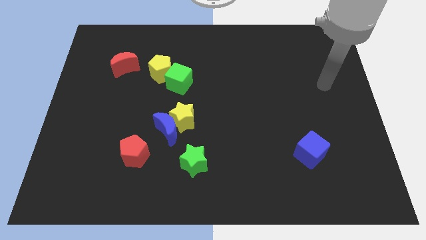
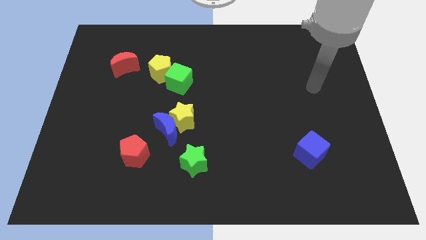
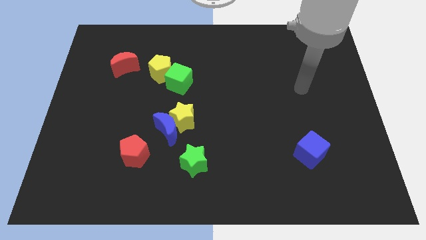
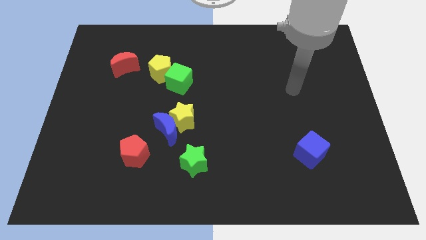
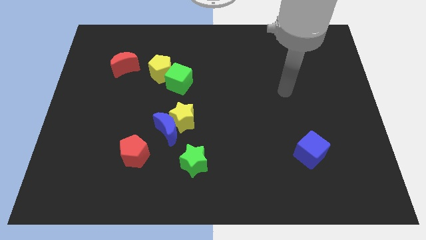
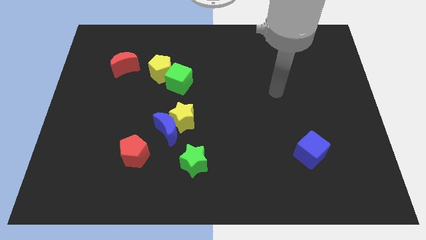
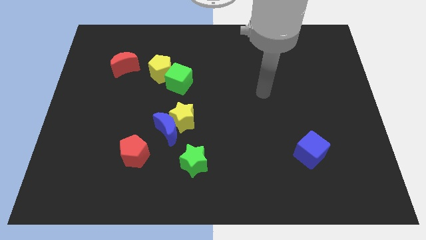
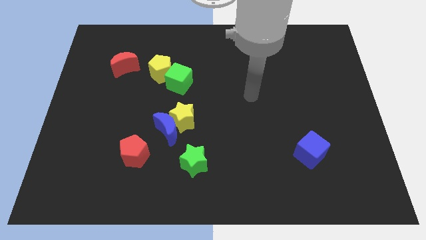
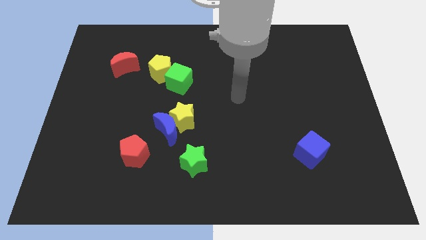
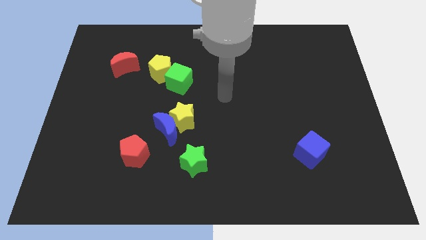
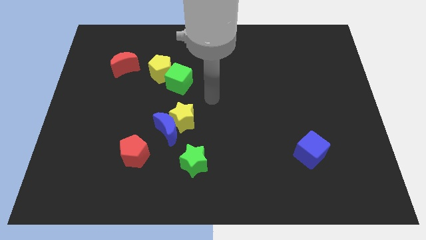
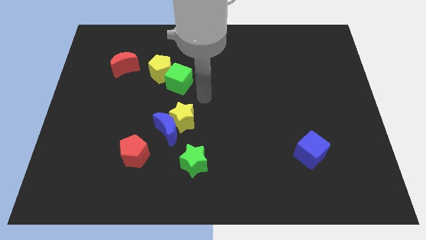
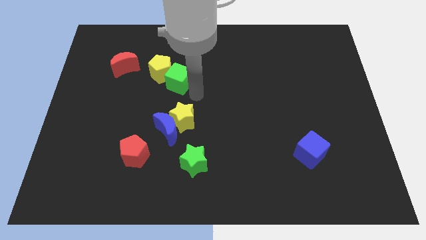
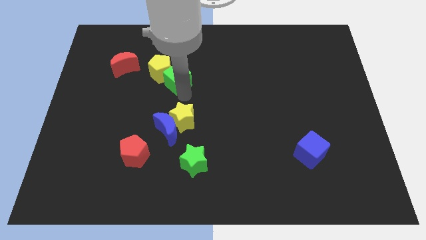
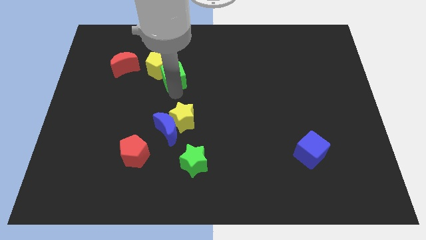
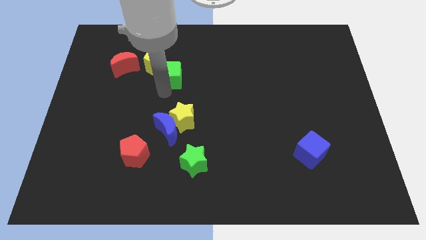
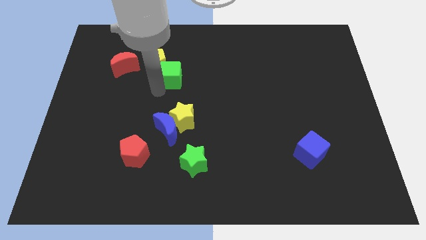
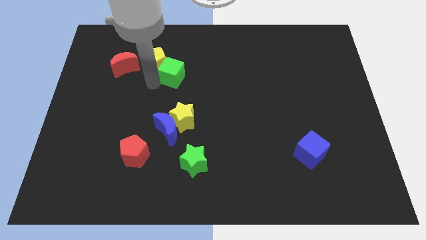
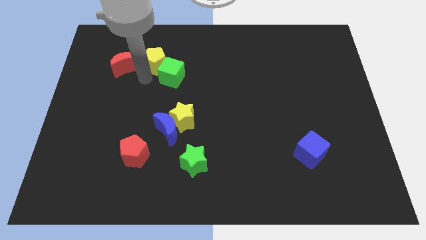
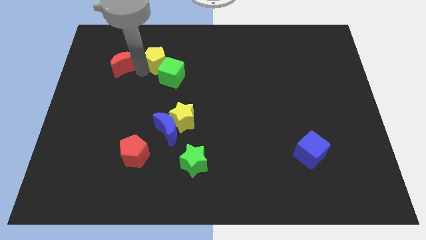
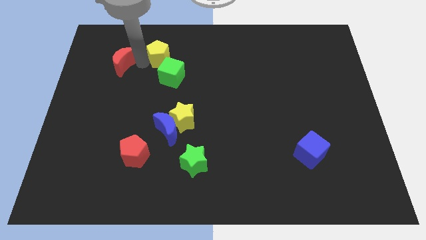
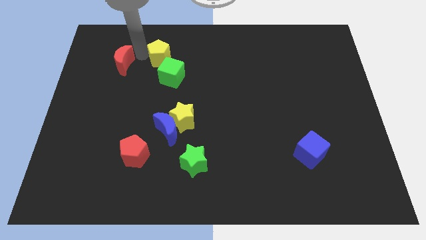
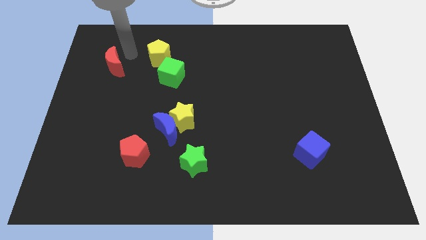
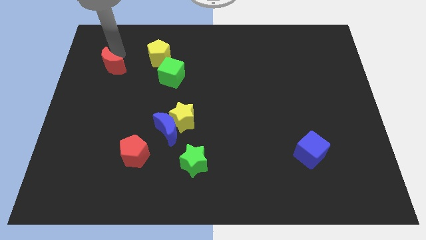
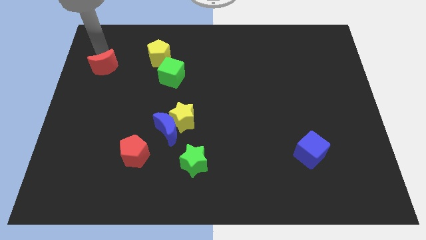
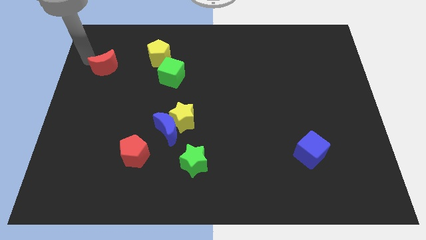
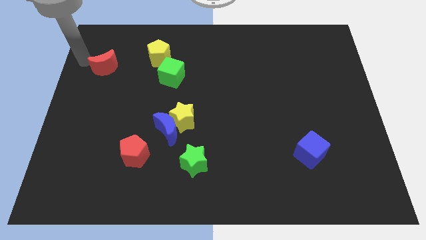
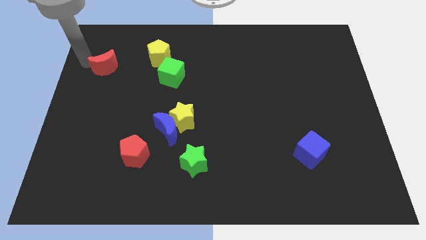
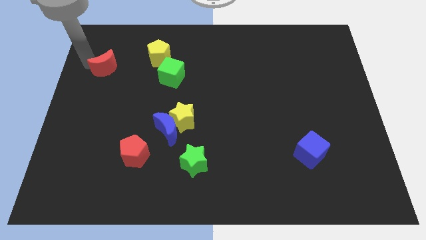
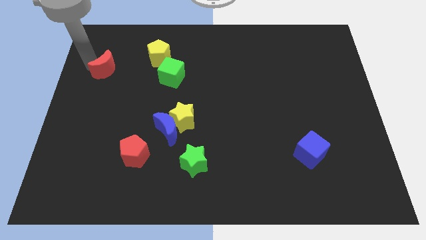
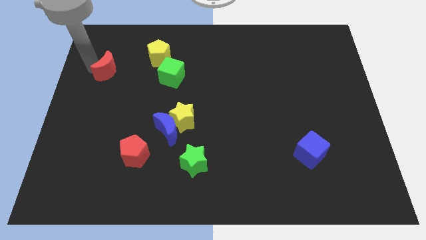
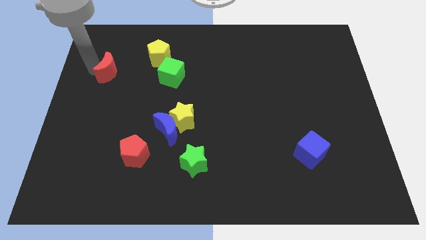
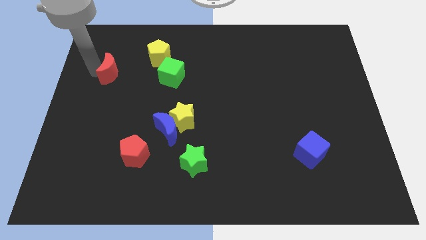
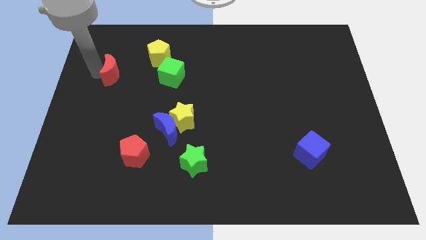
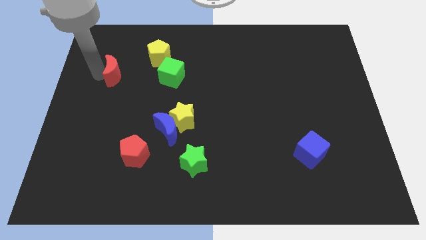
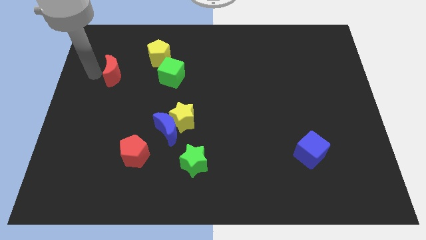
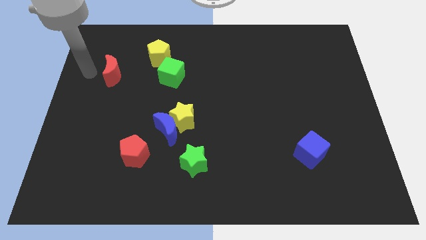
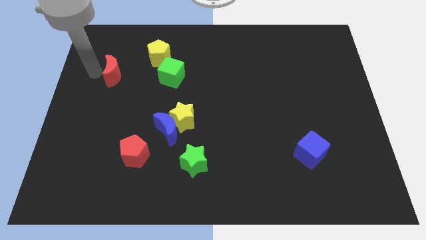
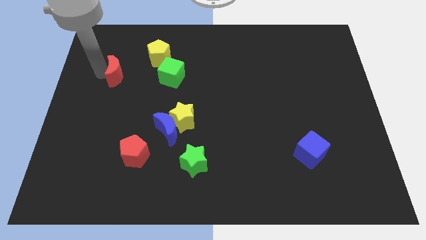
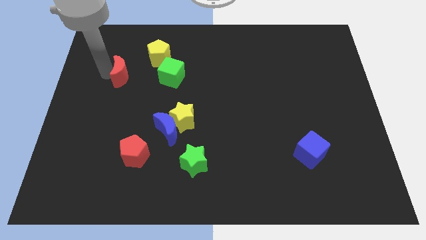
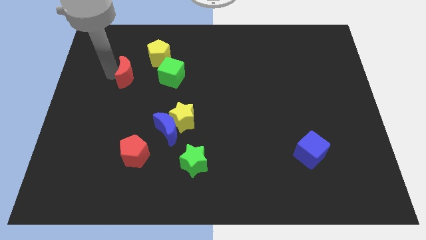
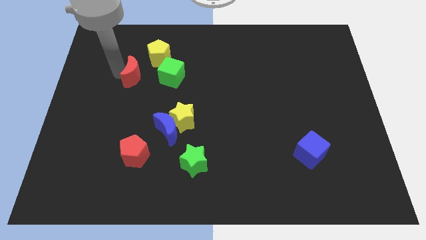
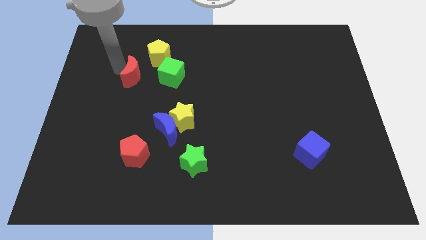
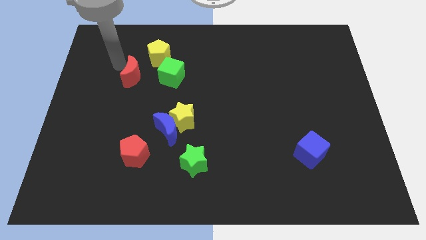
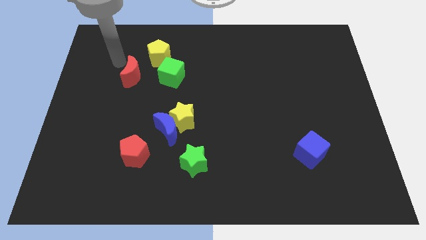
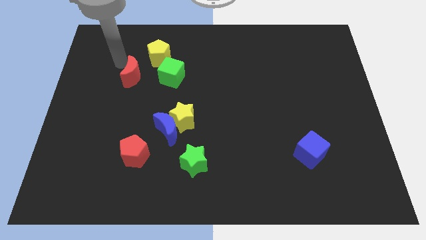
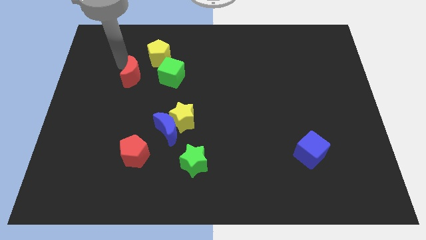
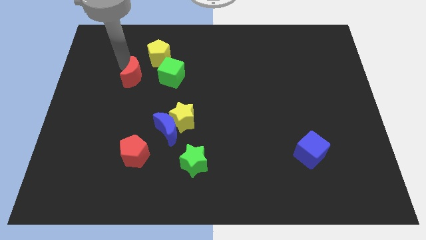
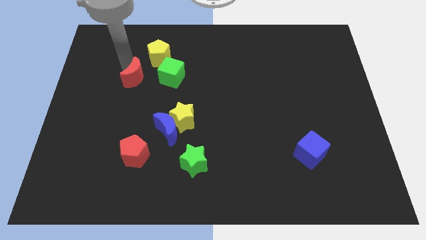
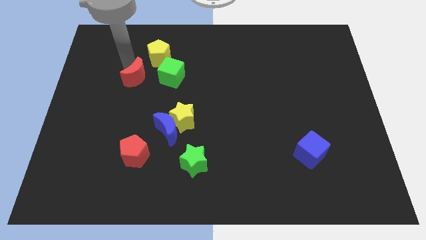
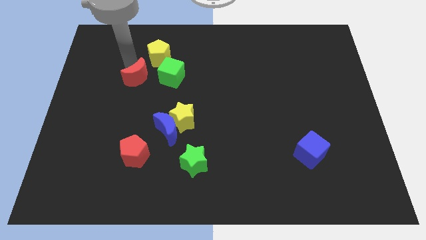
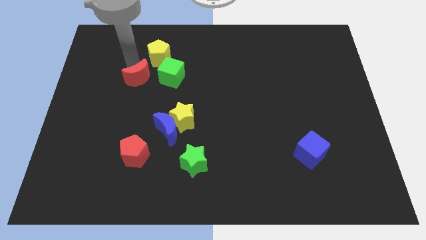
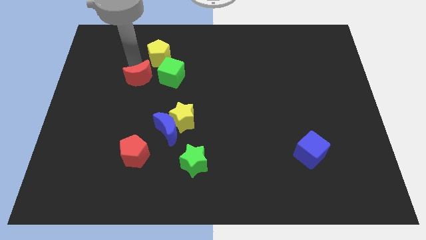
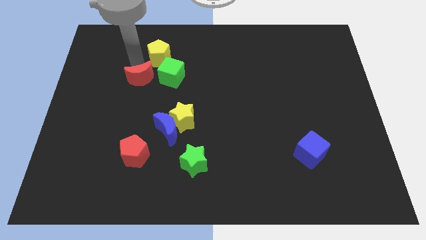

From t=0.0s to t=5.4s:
push the red moon to the bottom left side of the green cube

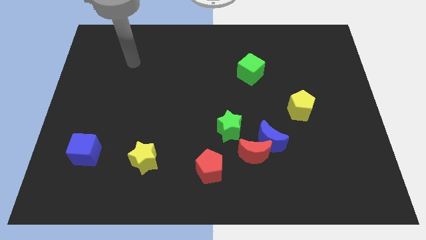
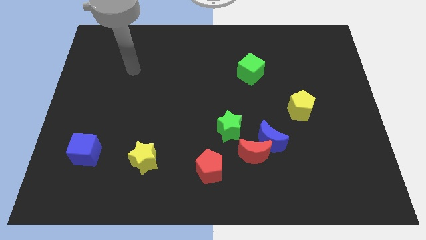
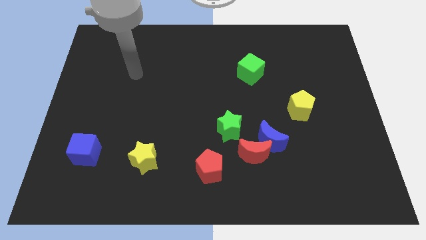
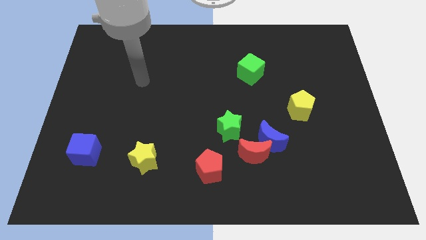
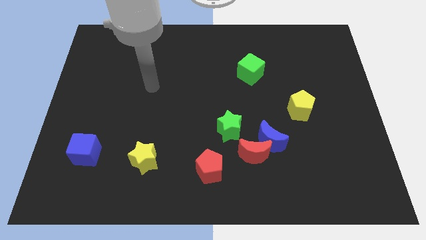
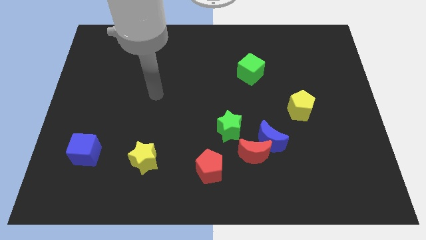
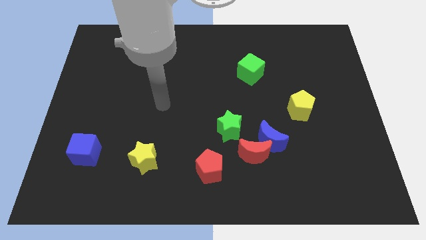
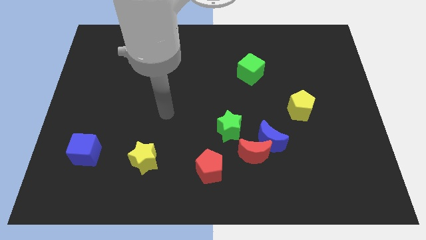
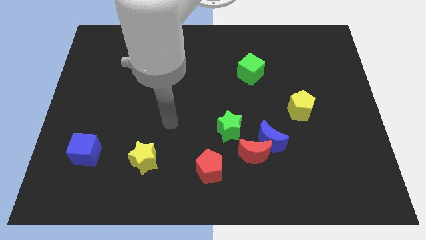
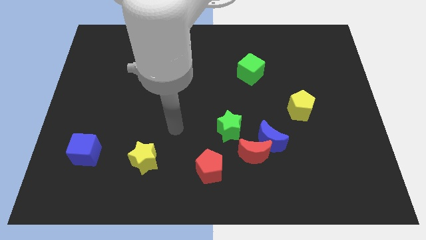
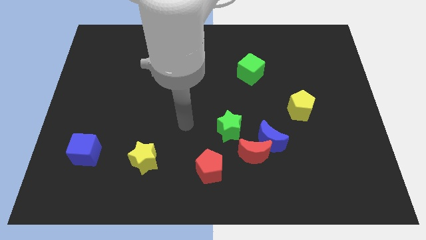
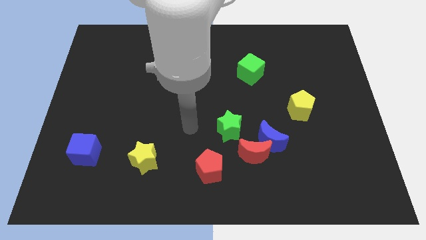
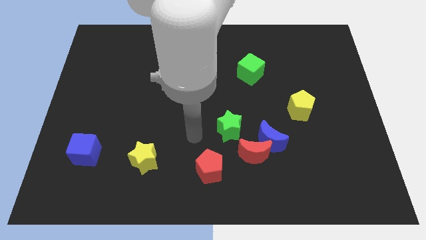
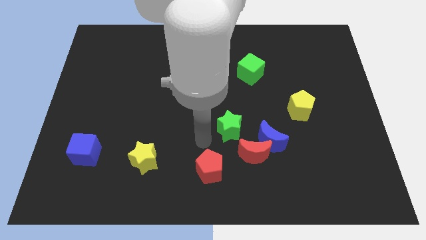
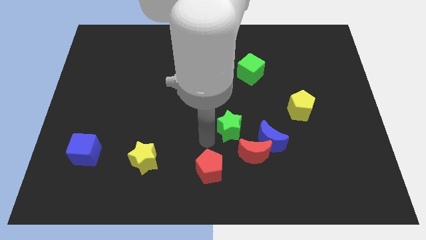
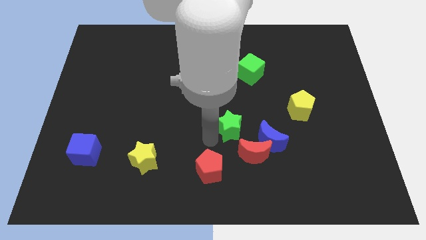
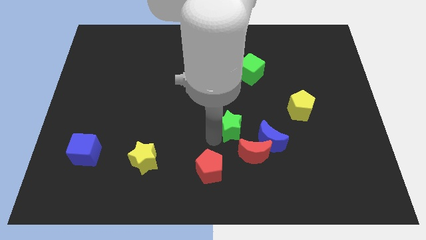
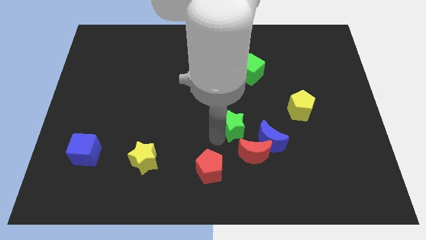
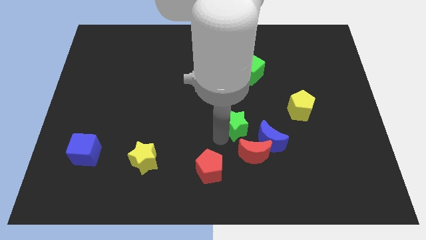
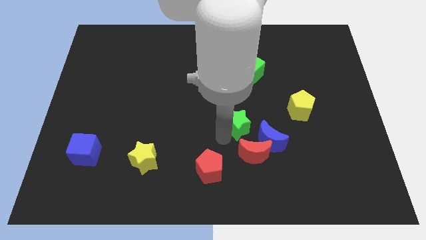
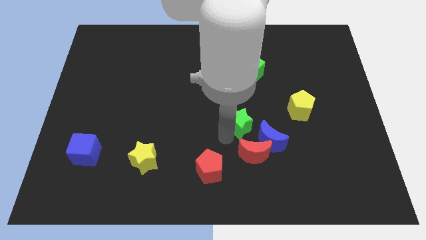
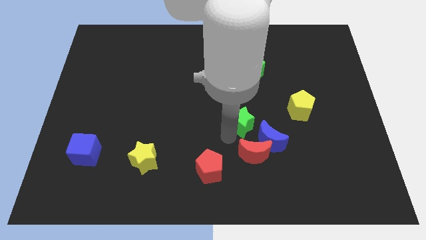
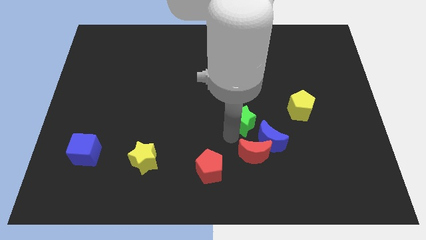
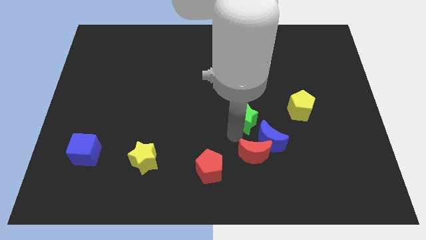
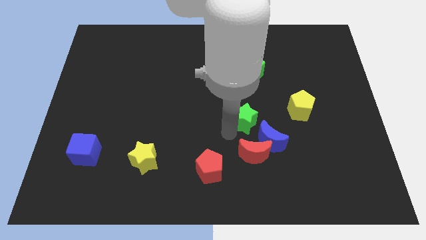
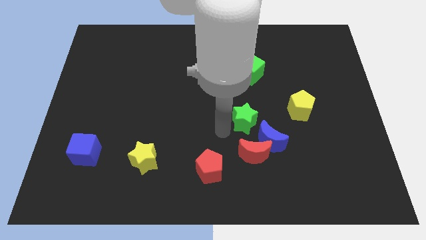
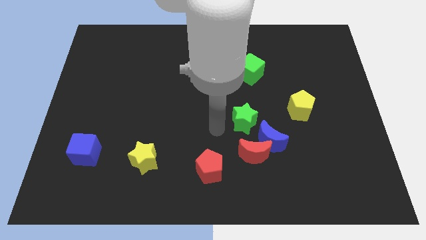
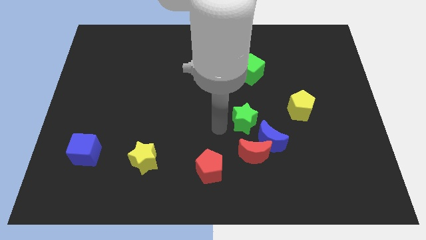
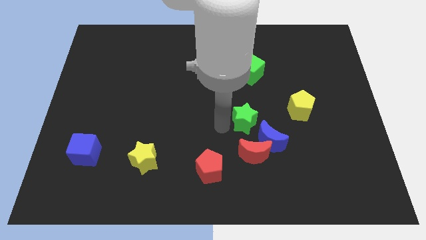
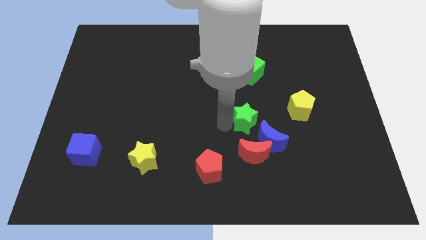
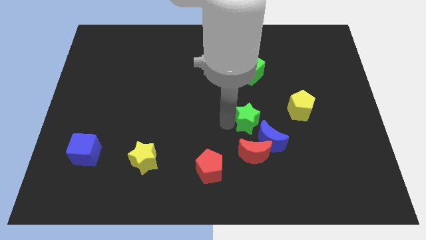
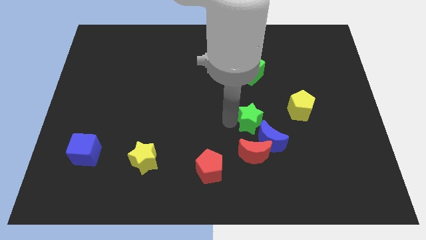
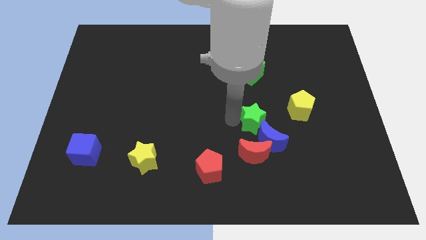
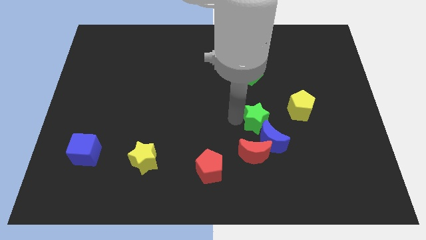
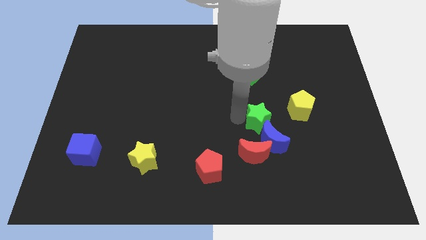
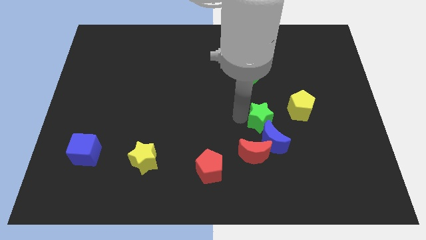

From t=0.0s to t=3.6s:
put the green star to the bottom left side of the yellow pentagon
